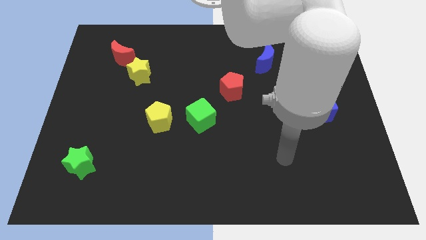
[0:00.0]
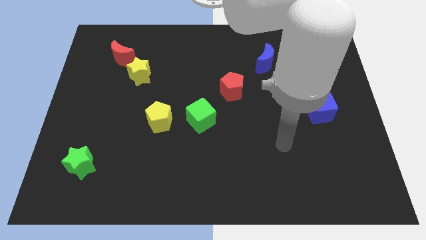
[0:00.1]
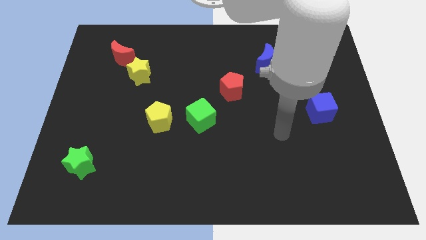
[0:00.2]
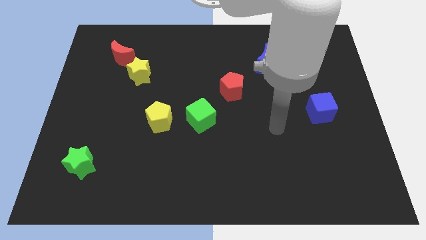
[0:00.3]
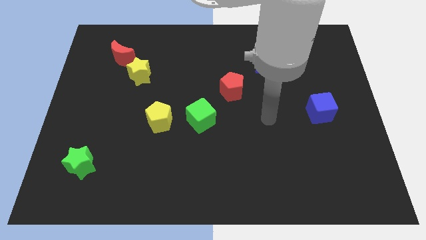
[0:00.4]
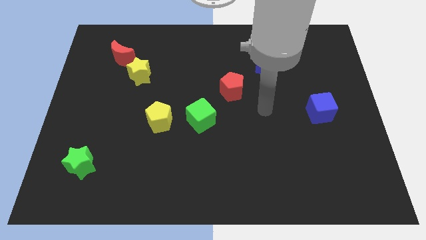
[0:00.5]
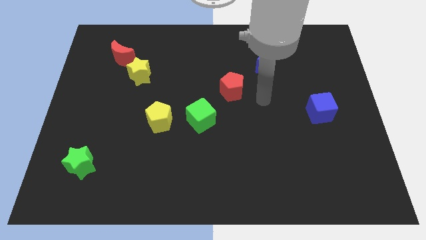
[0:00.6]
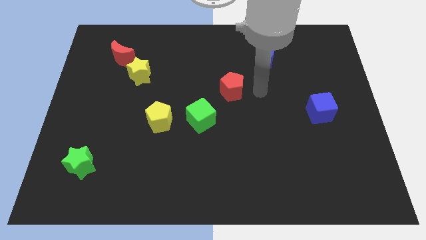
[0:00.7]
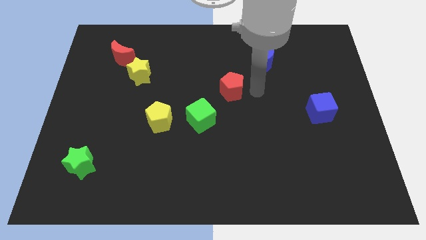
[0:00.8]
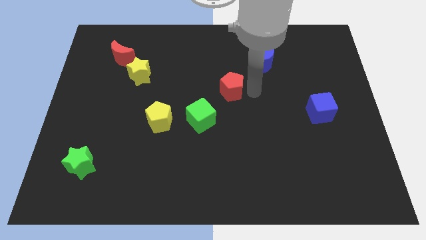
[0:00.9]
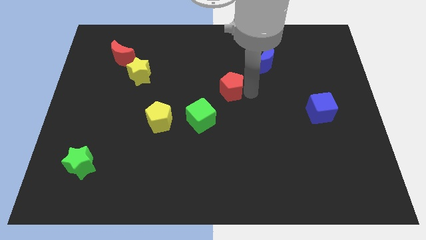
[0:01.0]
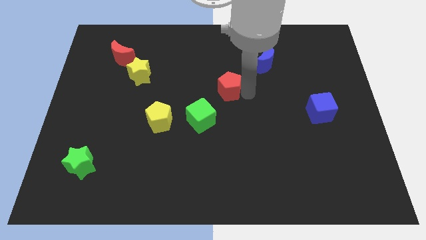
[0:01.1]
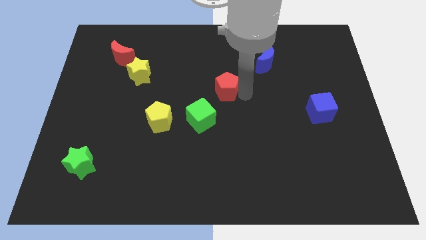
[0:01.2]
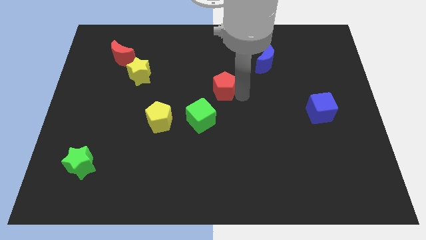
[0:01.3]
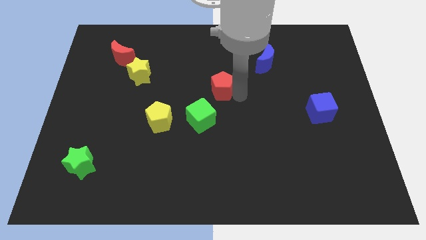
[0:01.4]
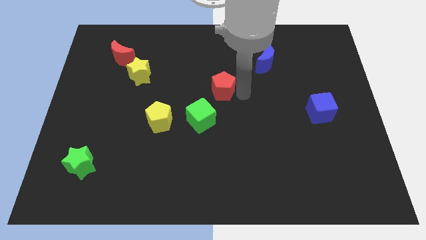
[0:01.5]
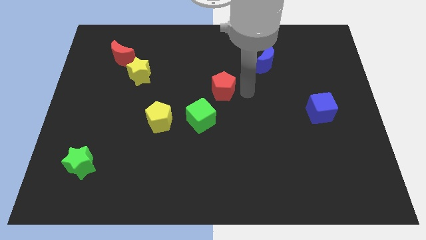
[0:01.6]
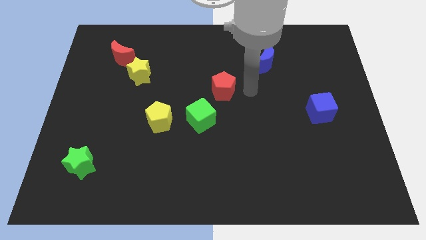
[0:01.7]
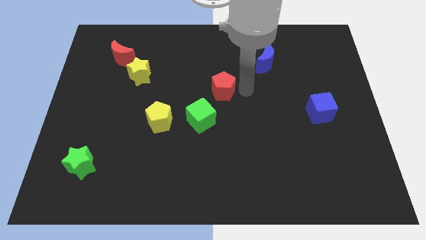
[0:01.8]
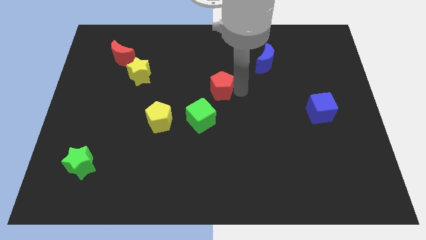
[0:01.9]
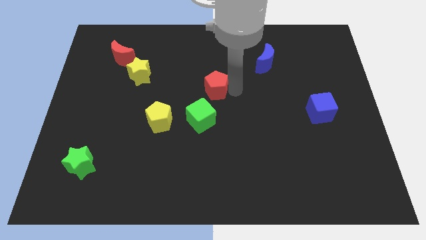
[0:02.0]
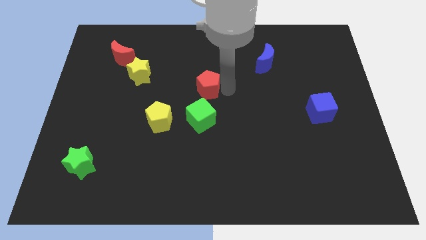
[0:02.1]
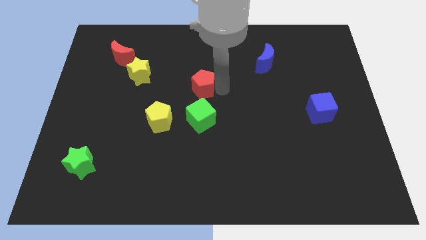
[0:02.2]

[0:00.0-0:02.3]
move the red pentagon to the left a bit

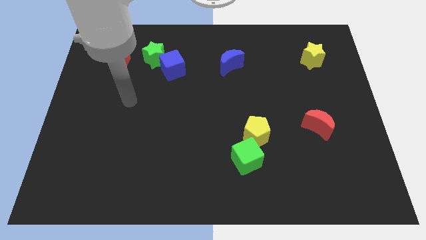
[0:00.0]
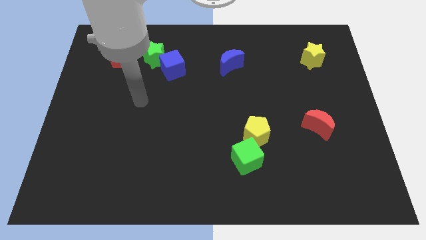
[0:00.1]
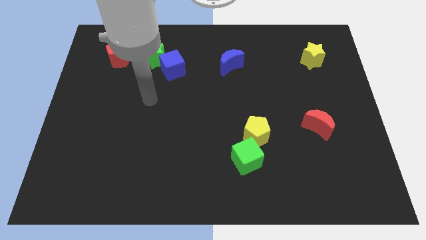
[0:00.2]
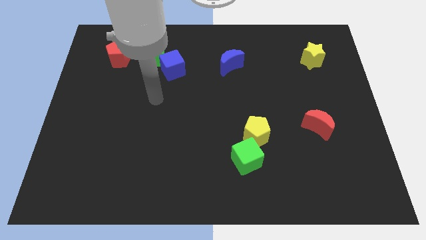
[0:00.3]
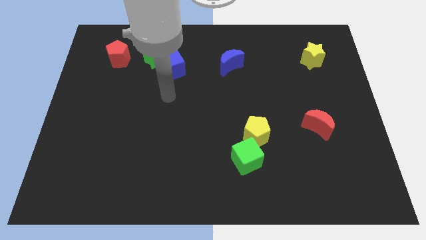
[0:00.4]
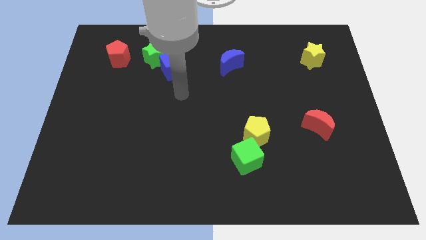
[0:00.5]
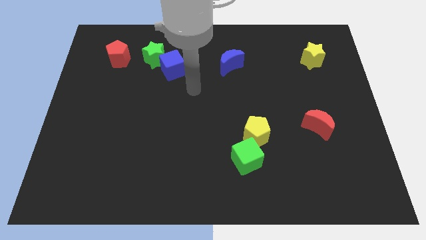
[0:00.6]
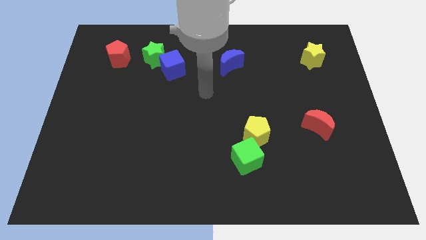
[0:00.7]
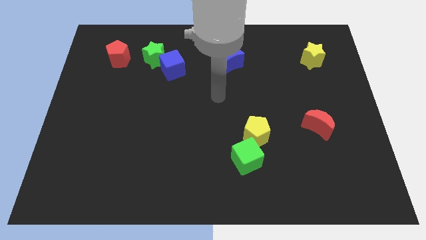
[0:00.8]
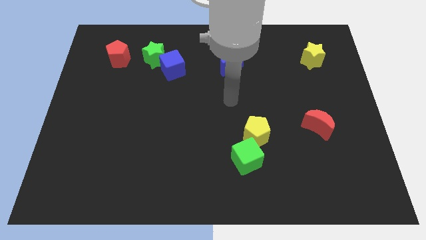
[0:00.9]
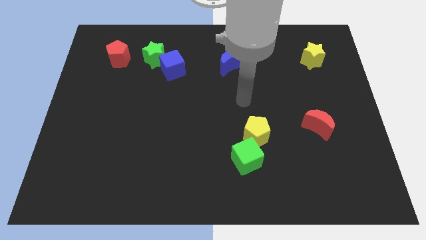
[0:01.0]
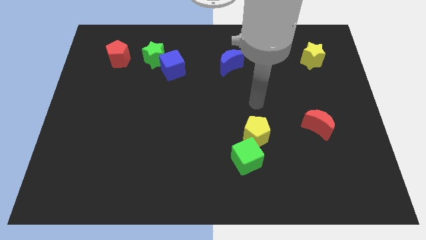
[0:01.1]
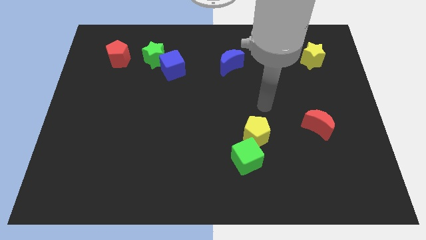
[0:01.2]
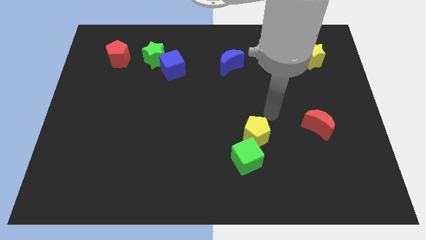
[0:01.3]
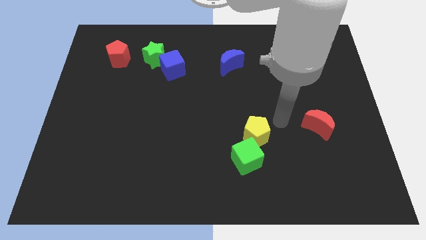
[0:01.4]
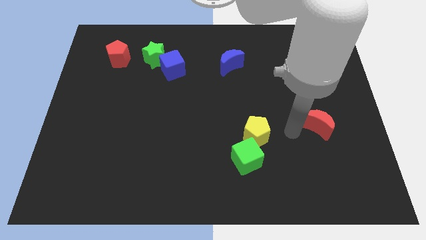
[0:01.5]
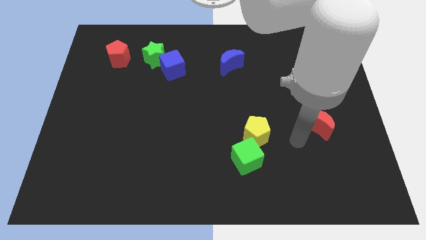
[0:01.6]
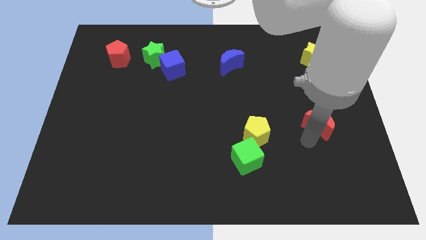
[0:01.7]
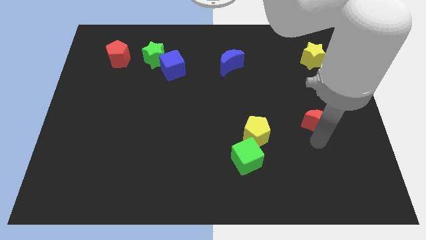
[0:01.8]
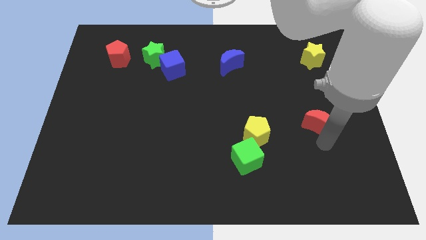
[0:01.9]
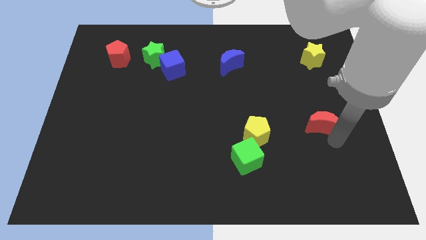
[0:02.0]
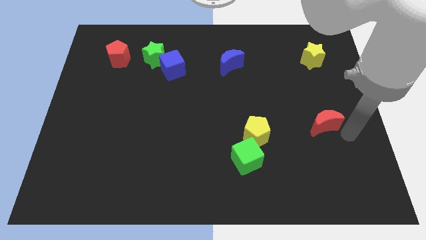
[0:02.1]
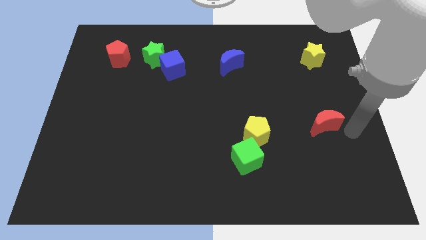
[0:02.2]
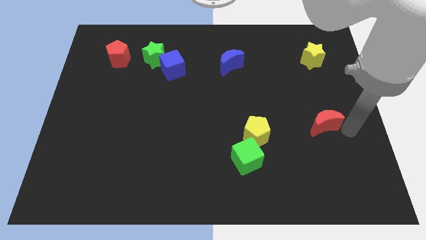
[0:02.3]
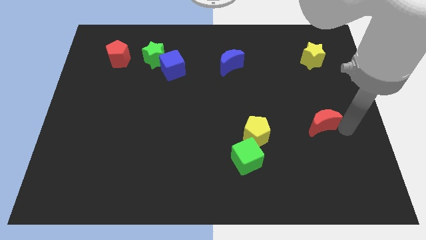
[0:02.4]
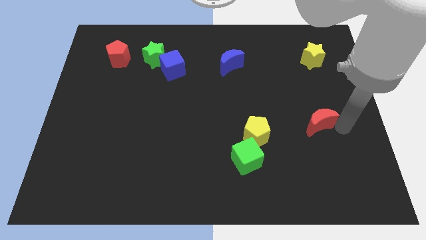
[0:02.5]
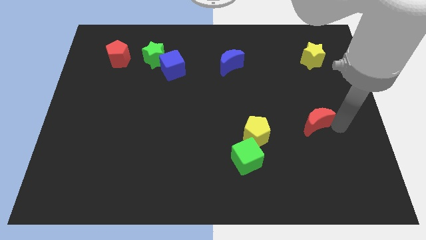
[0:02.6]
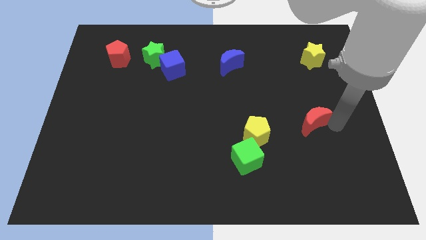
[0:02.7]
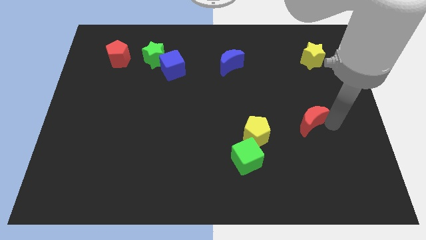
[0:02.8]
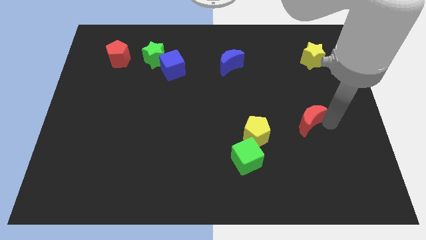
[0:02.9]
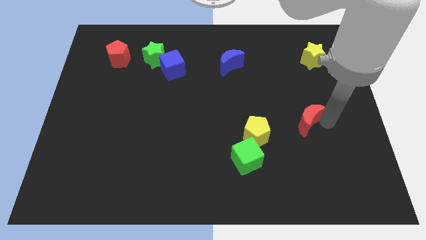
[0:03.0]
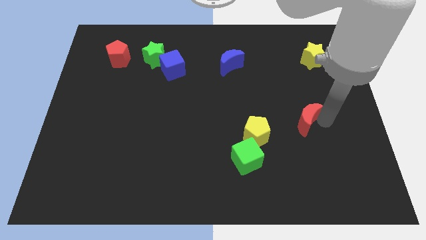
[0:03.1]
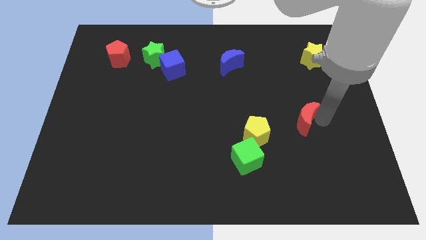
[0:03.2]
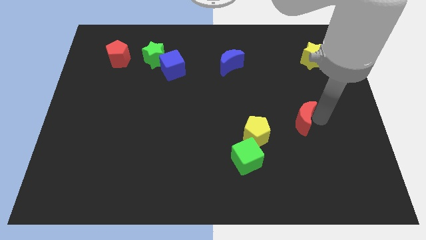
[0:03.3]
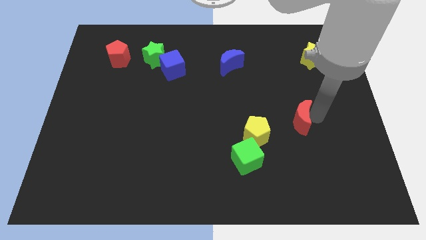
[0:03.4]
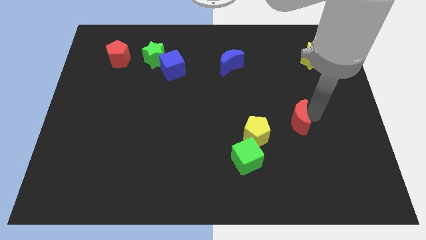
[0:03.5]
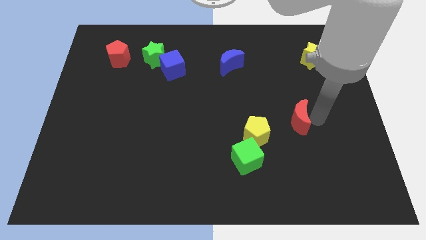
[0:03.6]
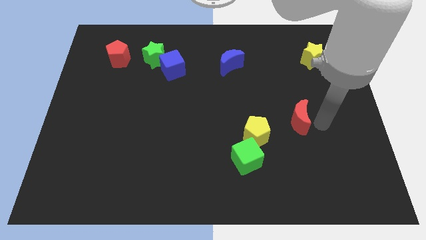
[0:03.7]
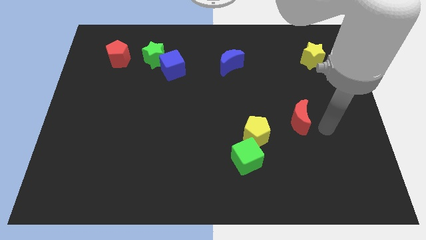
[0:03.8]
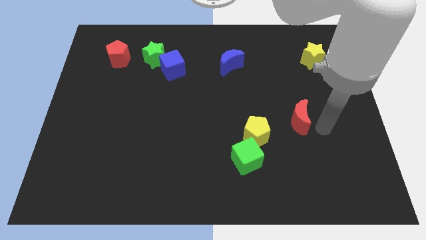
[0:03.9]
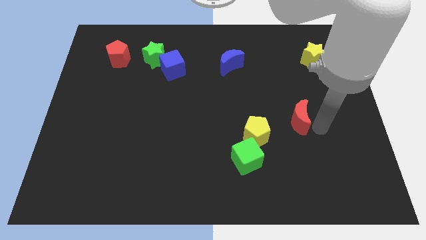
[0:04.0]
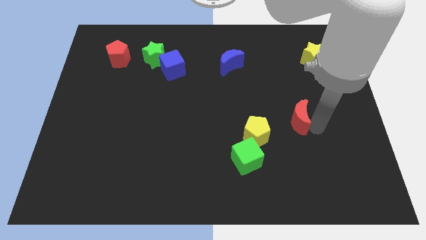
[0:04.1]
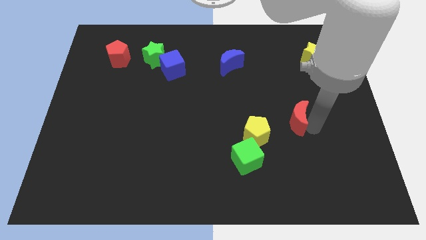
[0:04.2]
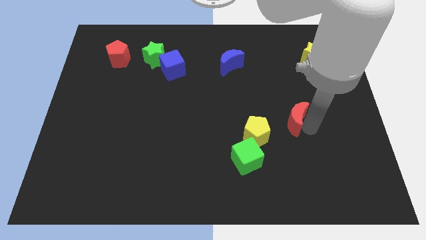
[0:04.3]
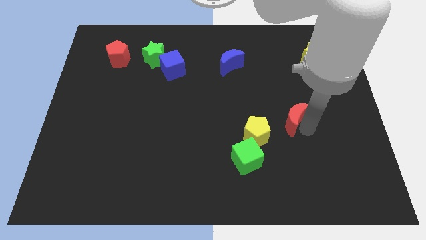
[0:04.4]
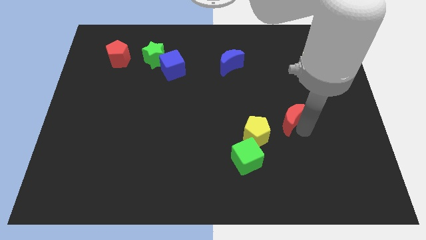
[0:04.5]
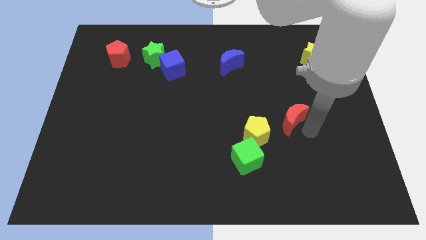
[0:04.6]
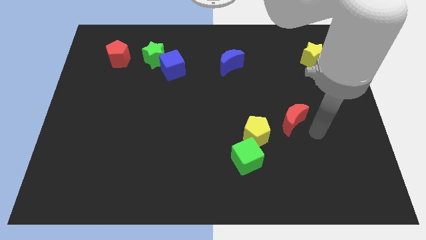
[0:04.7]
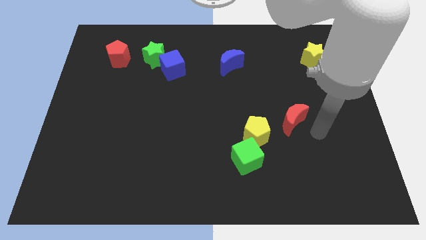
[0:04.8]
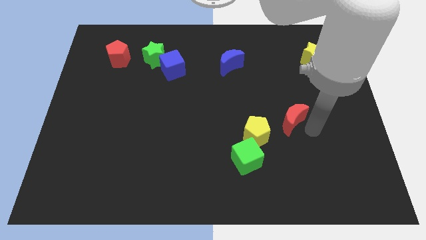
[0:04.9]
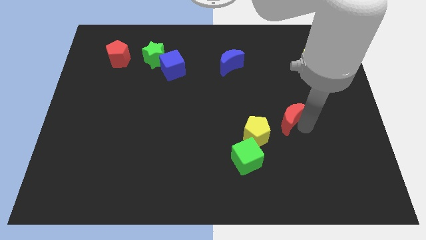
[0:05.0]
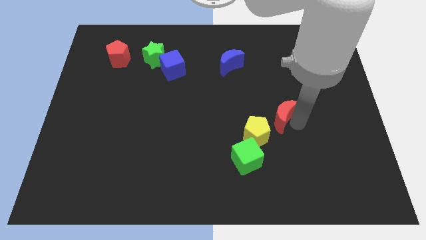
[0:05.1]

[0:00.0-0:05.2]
push the red moon a little bit to the left

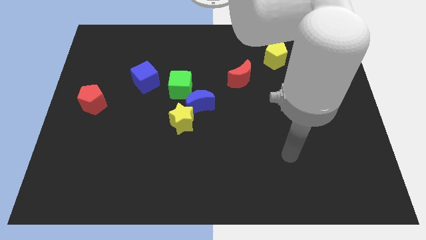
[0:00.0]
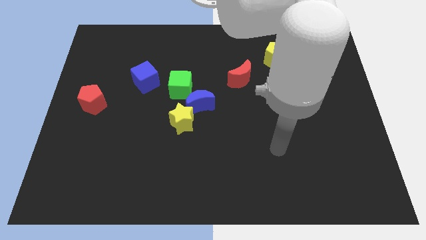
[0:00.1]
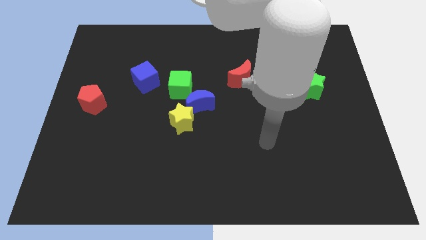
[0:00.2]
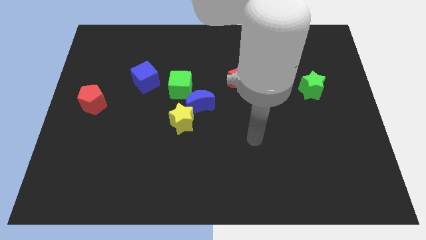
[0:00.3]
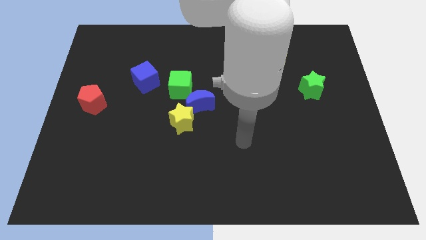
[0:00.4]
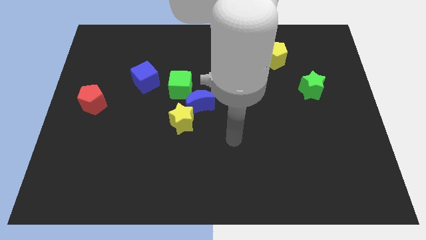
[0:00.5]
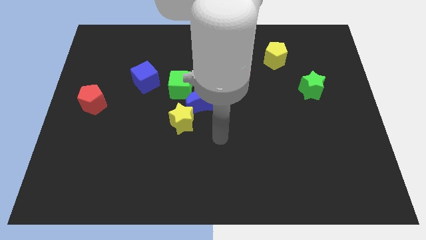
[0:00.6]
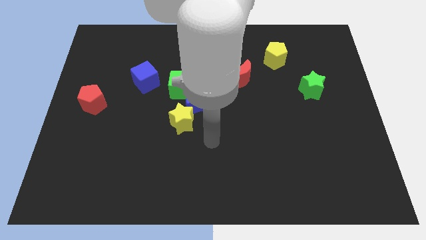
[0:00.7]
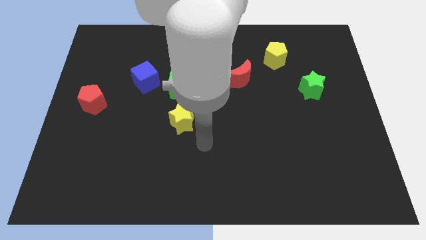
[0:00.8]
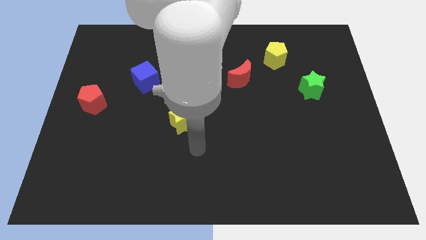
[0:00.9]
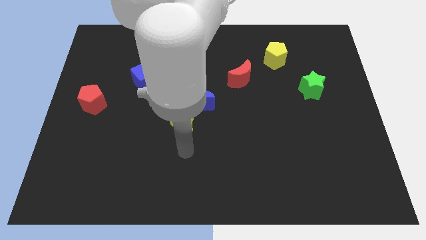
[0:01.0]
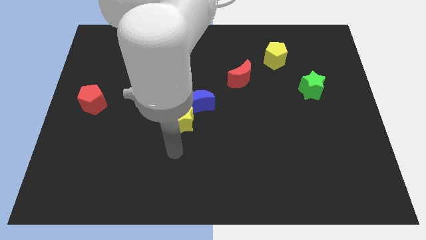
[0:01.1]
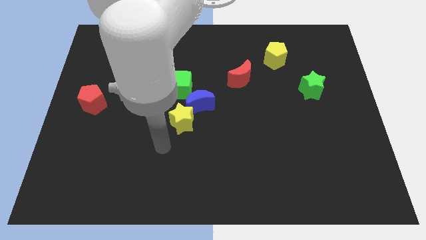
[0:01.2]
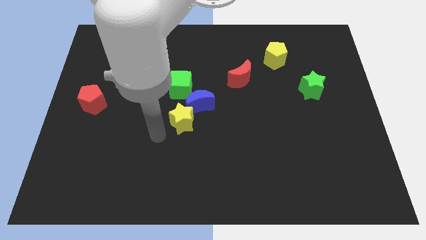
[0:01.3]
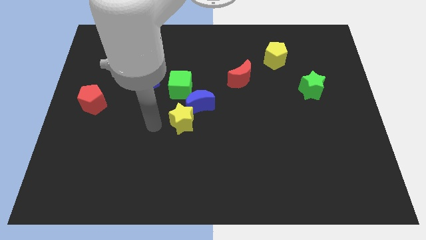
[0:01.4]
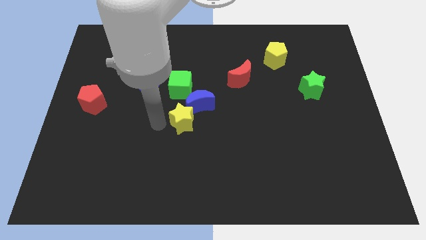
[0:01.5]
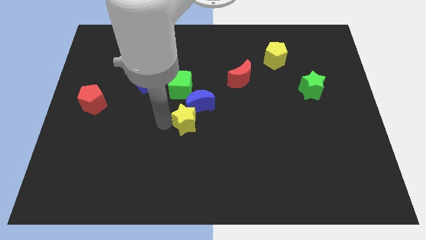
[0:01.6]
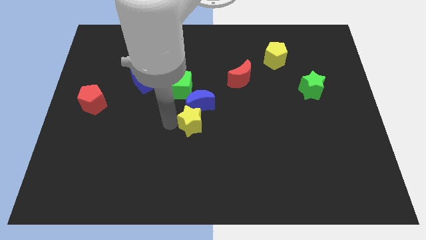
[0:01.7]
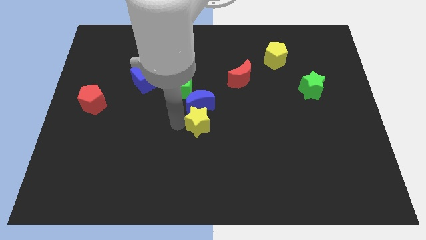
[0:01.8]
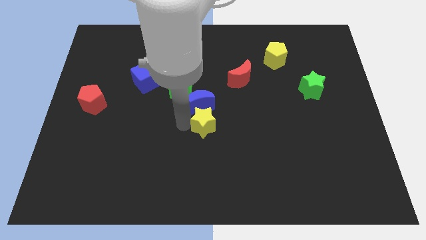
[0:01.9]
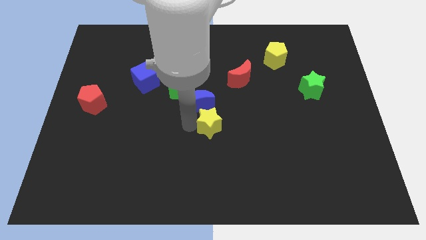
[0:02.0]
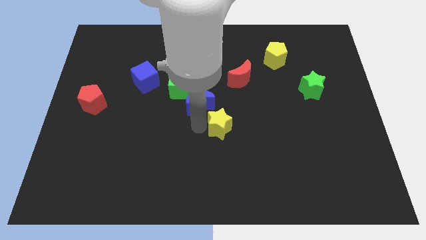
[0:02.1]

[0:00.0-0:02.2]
slightly push the yellow star right
